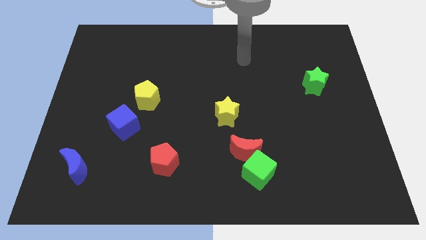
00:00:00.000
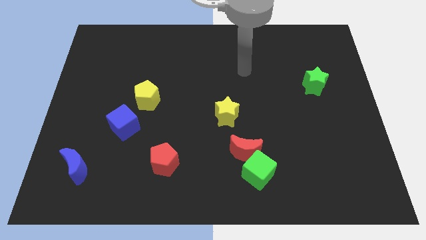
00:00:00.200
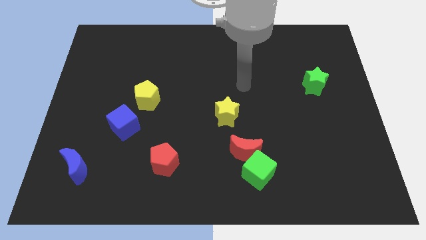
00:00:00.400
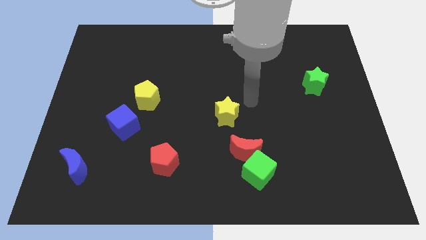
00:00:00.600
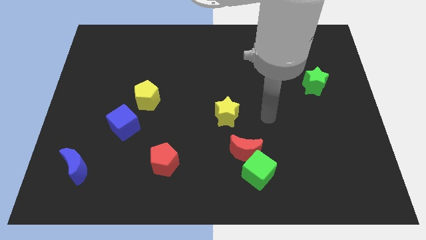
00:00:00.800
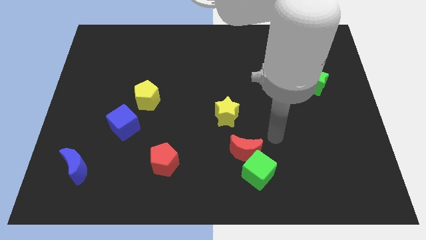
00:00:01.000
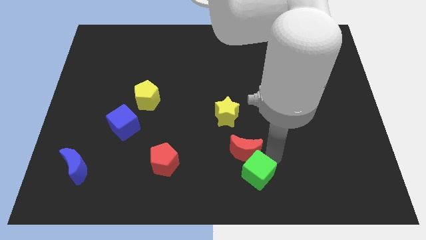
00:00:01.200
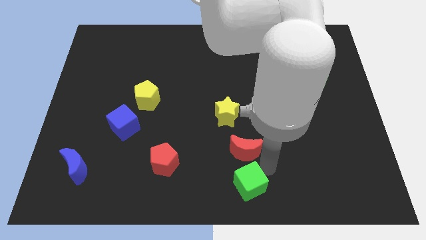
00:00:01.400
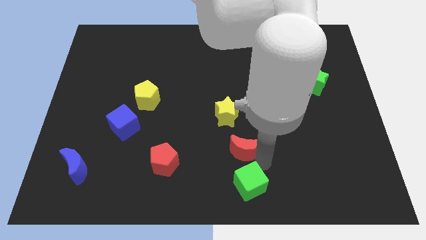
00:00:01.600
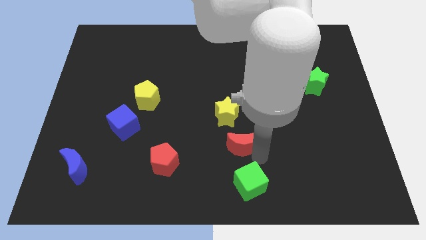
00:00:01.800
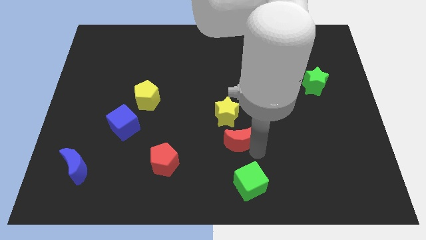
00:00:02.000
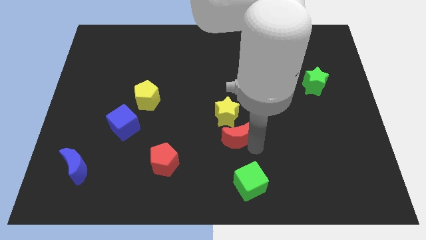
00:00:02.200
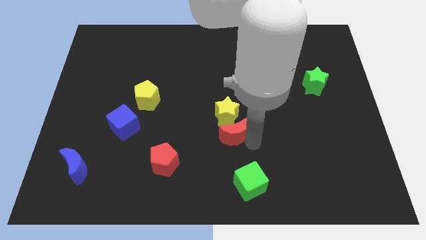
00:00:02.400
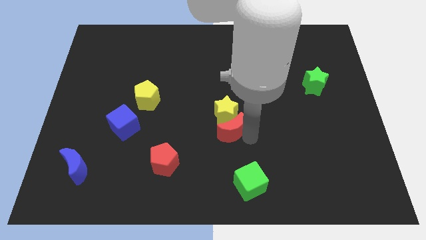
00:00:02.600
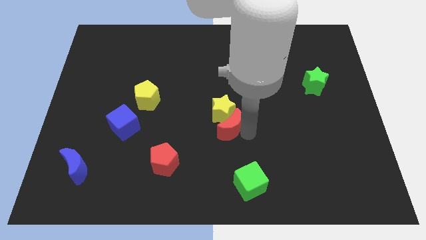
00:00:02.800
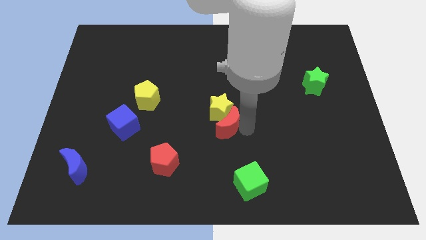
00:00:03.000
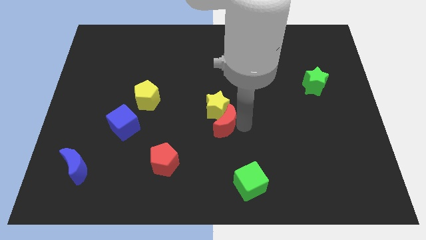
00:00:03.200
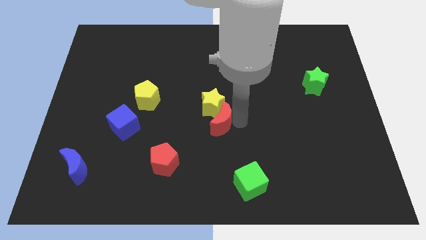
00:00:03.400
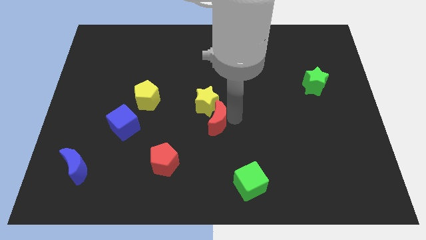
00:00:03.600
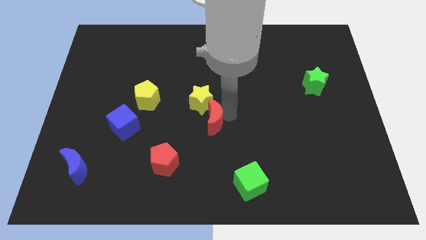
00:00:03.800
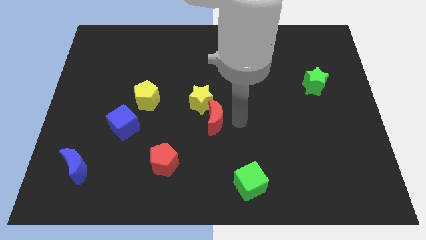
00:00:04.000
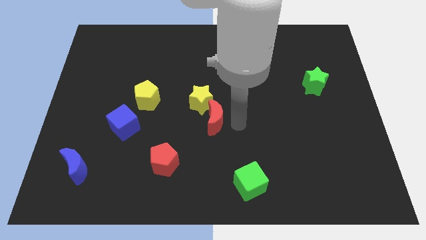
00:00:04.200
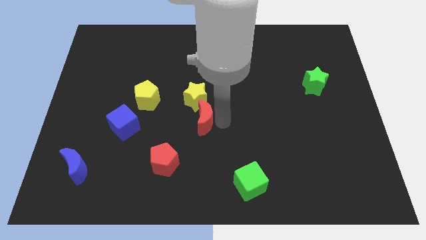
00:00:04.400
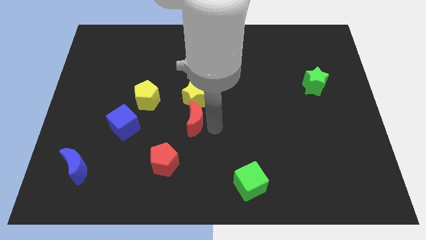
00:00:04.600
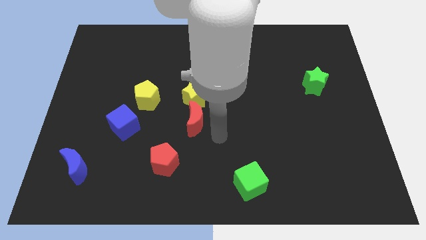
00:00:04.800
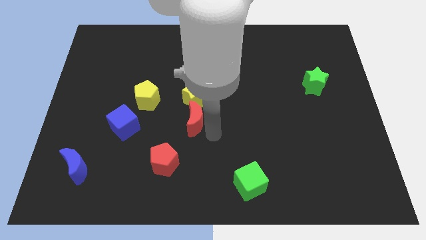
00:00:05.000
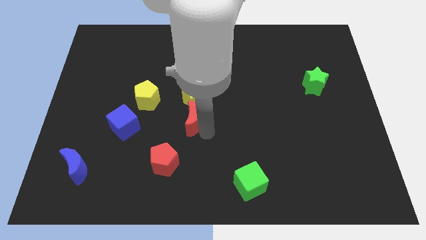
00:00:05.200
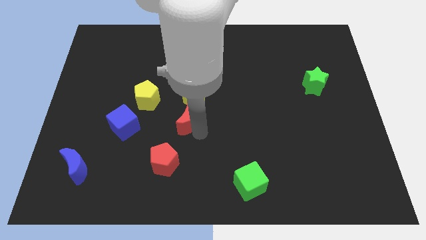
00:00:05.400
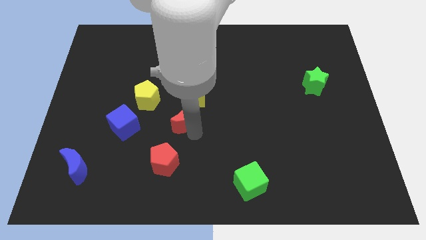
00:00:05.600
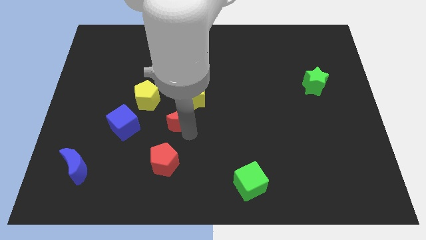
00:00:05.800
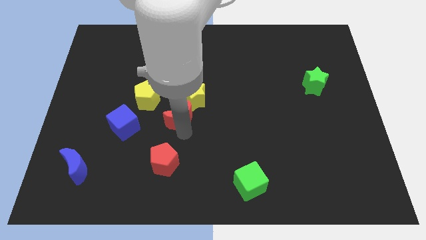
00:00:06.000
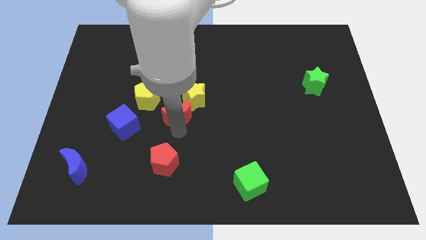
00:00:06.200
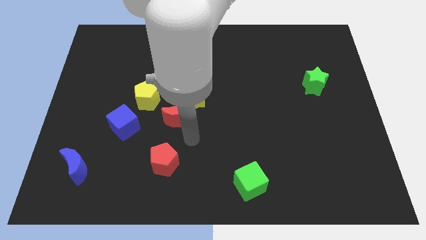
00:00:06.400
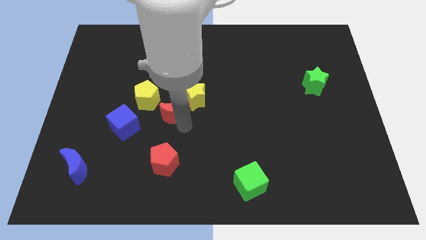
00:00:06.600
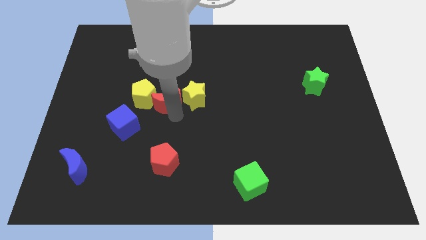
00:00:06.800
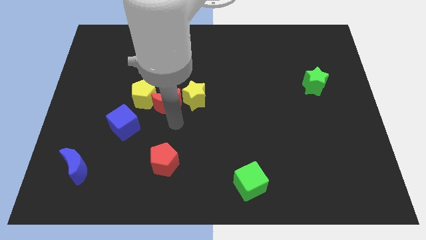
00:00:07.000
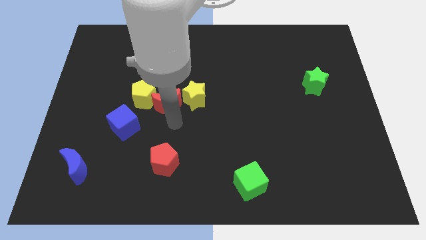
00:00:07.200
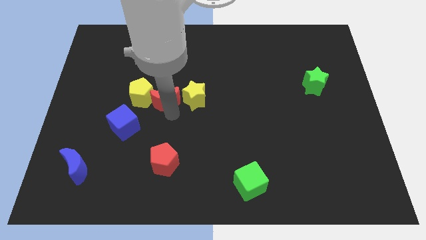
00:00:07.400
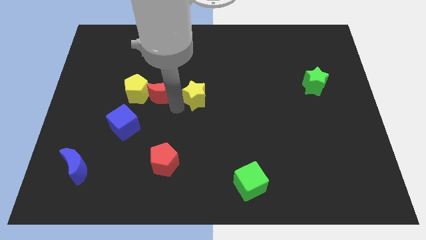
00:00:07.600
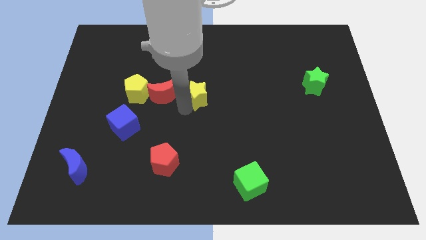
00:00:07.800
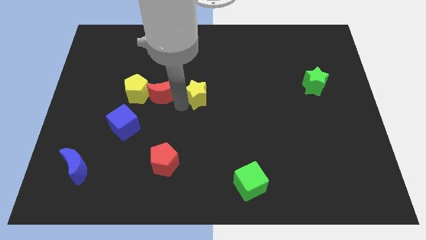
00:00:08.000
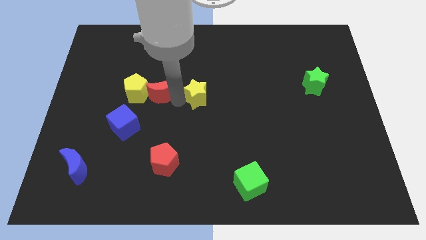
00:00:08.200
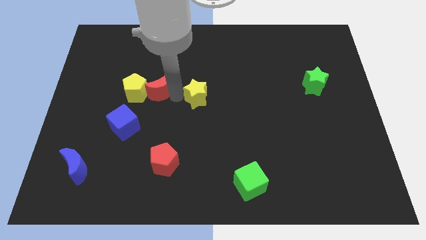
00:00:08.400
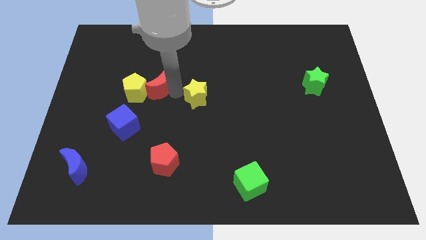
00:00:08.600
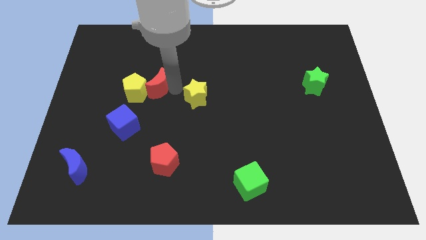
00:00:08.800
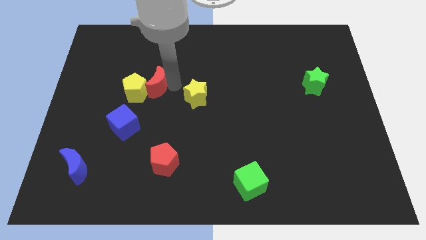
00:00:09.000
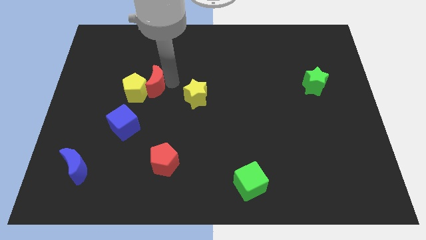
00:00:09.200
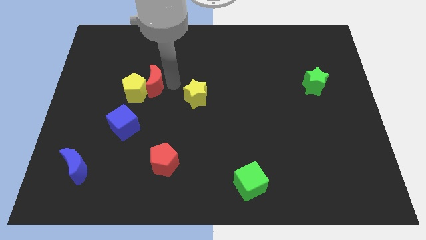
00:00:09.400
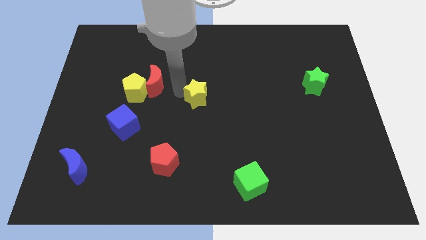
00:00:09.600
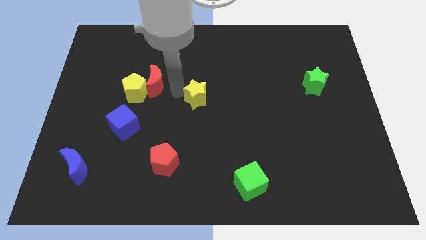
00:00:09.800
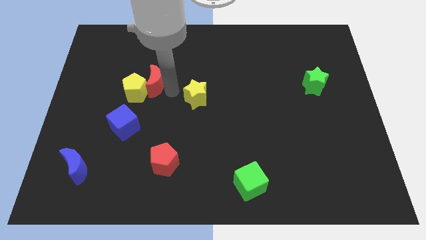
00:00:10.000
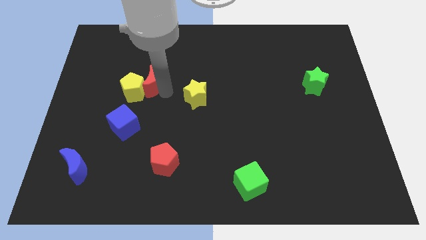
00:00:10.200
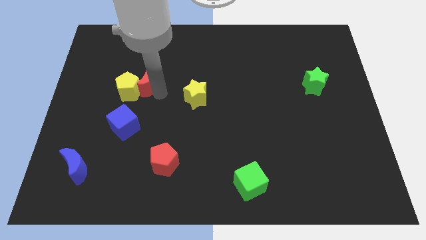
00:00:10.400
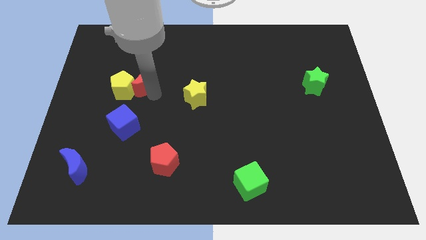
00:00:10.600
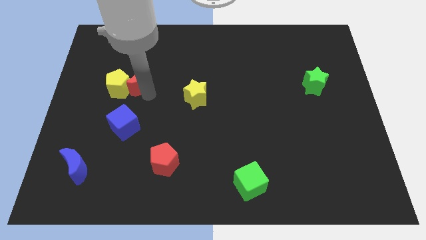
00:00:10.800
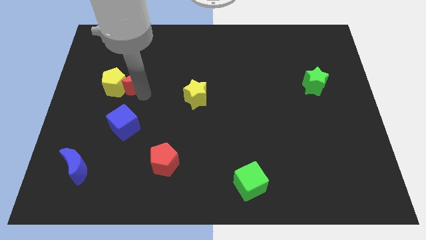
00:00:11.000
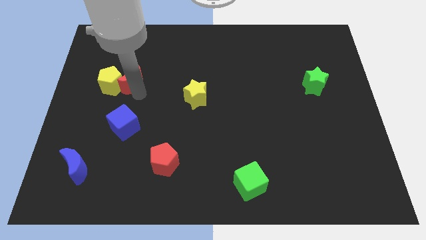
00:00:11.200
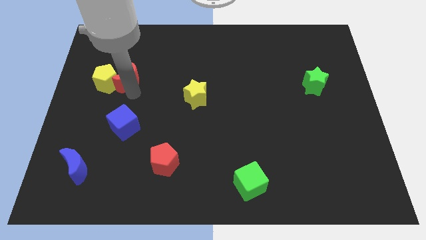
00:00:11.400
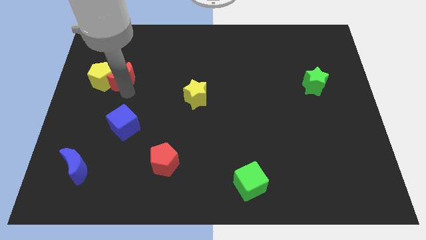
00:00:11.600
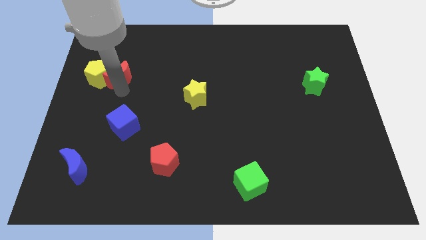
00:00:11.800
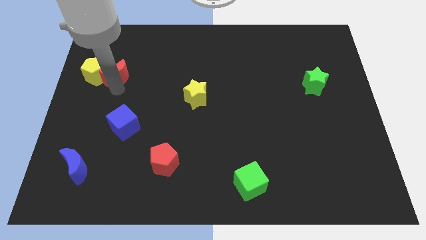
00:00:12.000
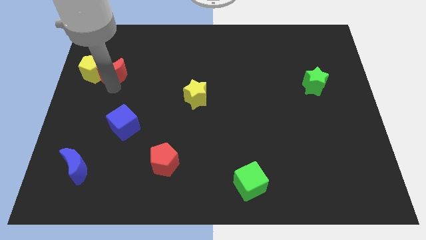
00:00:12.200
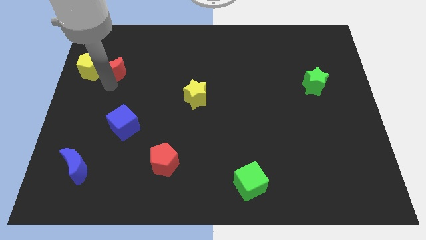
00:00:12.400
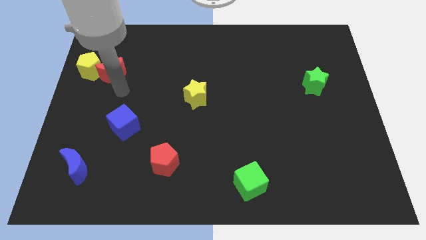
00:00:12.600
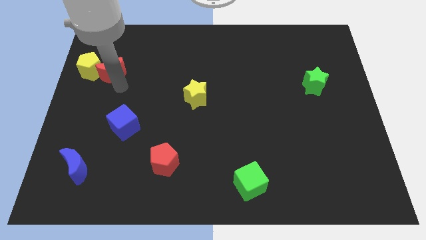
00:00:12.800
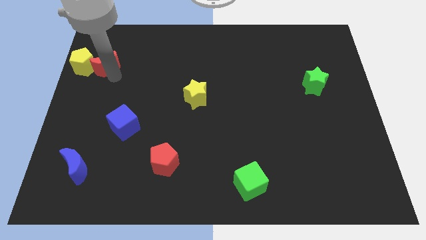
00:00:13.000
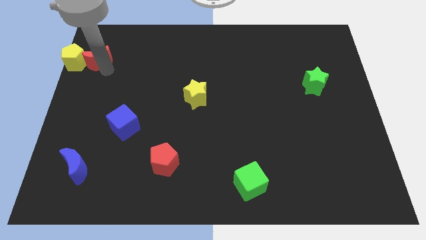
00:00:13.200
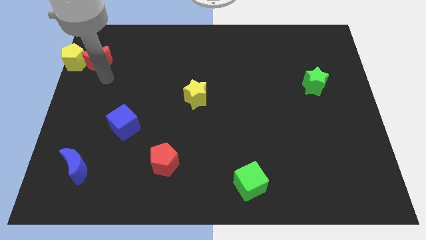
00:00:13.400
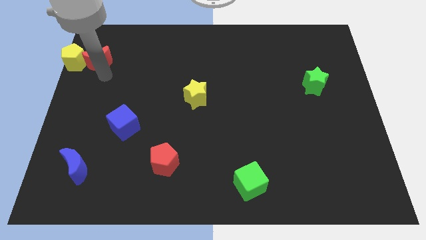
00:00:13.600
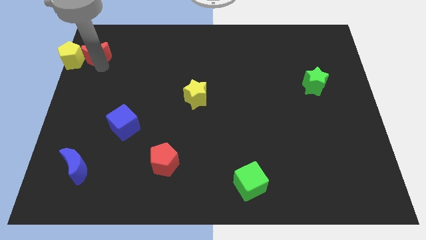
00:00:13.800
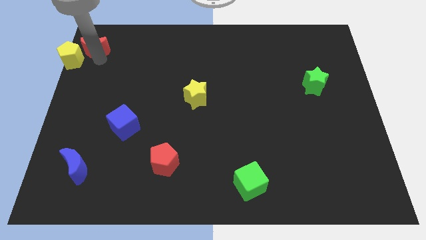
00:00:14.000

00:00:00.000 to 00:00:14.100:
move the red moon to the upper left corner
